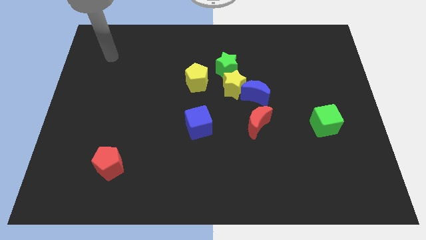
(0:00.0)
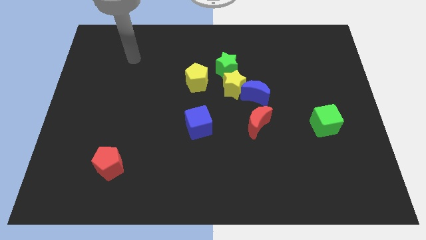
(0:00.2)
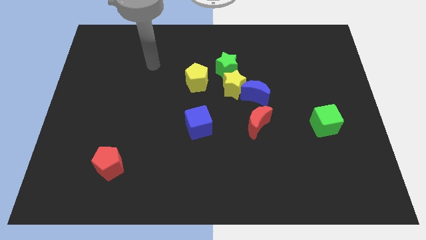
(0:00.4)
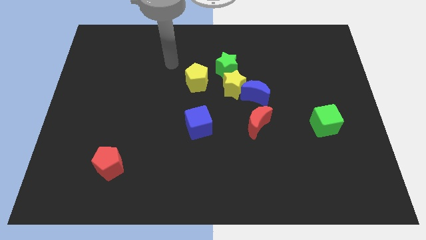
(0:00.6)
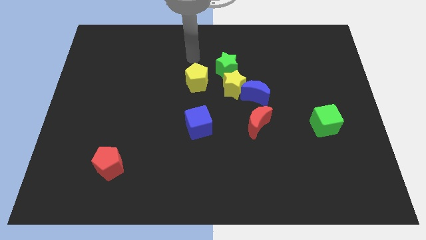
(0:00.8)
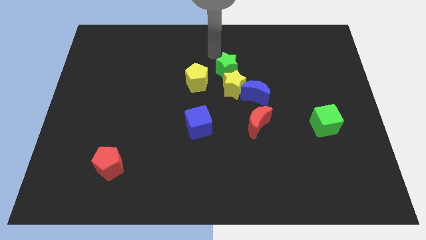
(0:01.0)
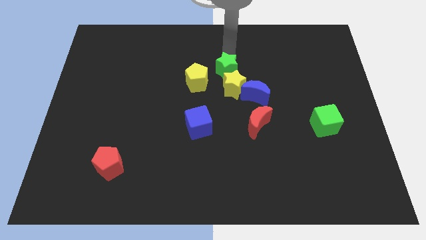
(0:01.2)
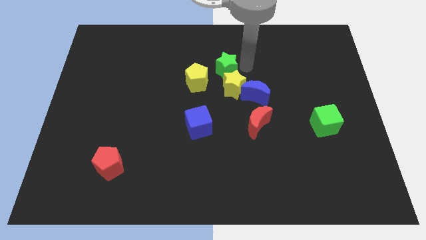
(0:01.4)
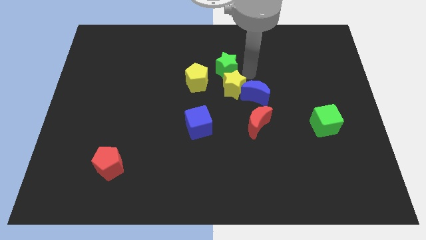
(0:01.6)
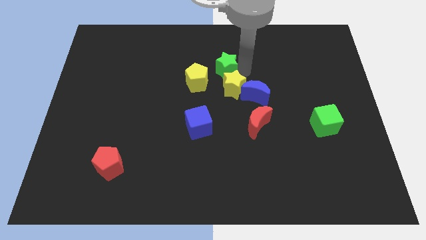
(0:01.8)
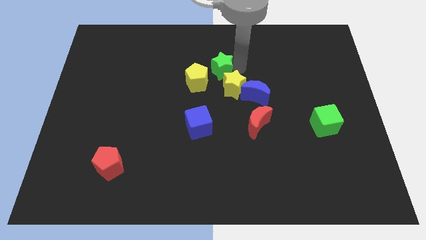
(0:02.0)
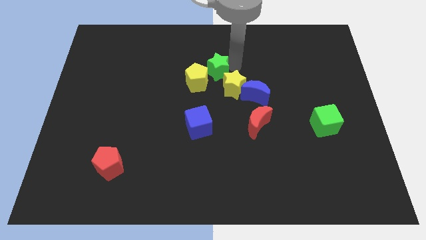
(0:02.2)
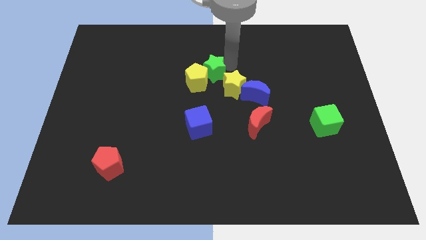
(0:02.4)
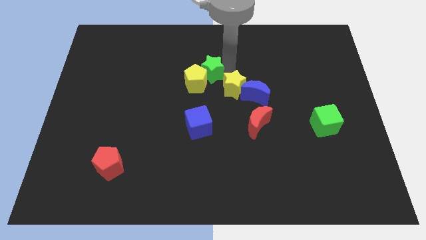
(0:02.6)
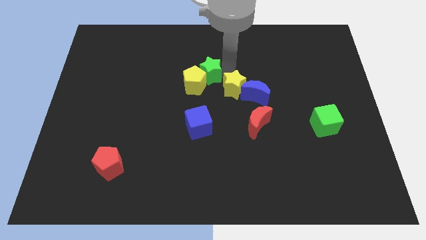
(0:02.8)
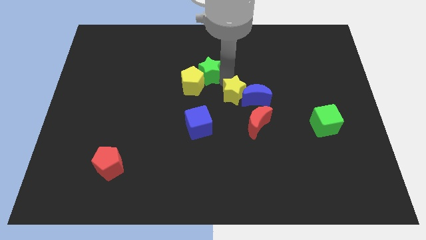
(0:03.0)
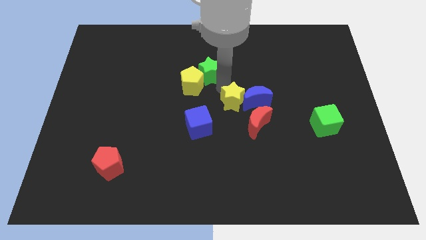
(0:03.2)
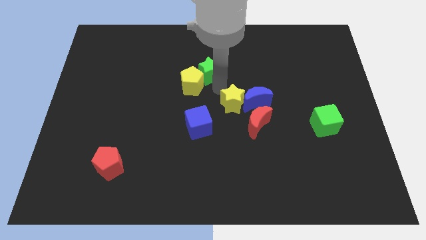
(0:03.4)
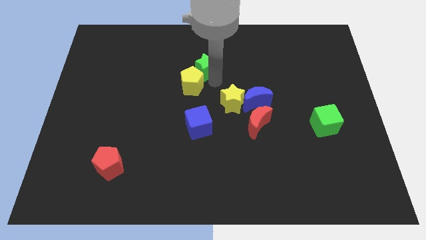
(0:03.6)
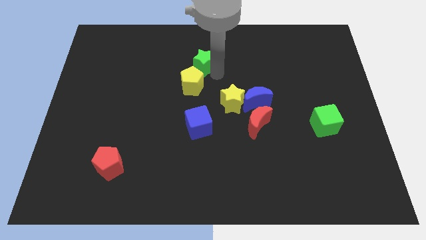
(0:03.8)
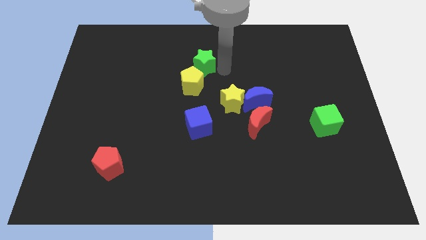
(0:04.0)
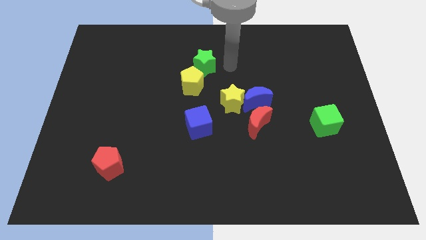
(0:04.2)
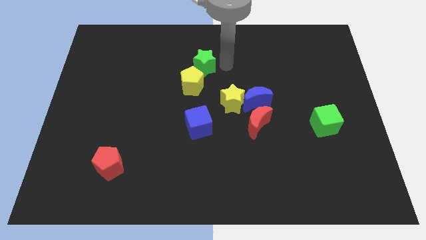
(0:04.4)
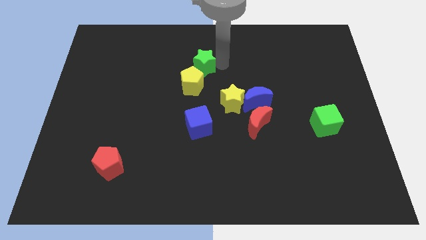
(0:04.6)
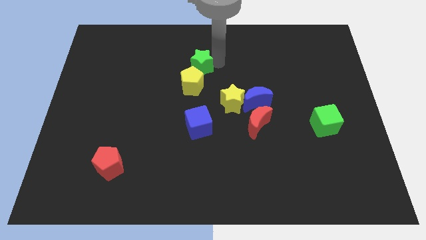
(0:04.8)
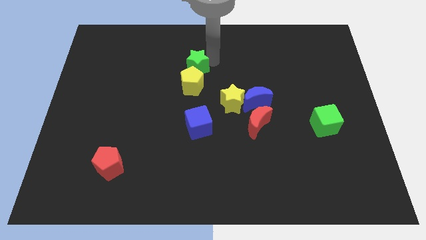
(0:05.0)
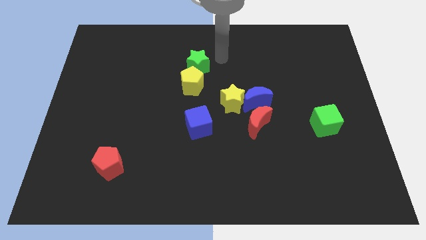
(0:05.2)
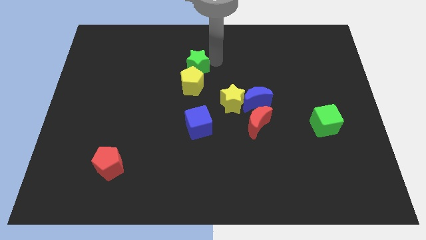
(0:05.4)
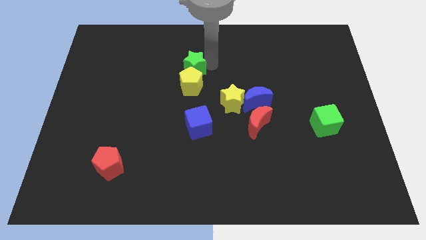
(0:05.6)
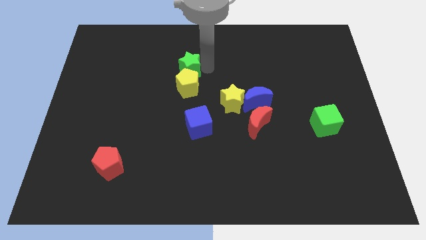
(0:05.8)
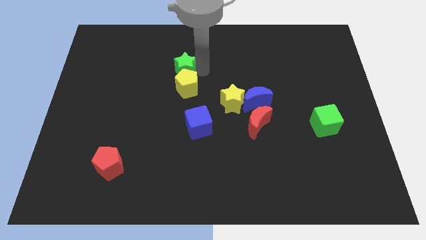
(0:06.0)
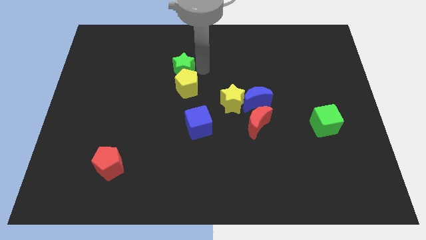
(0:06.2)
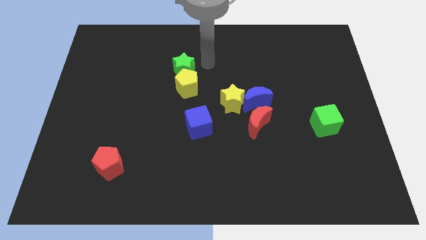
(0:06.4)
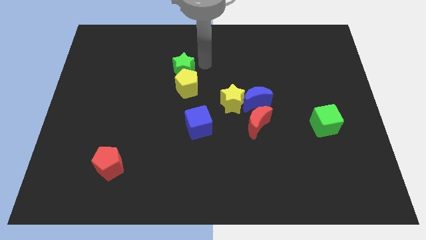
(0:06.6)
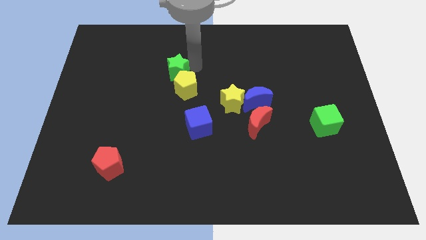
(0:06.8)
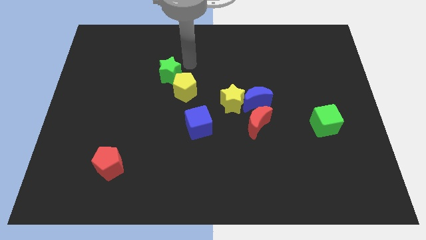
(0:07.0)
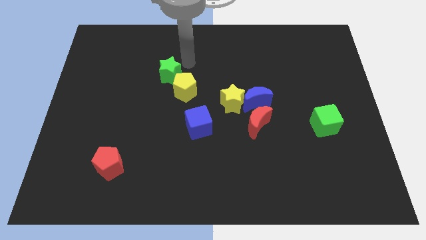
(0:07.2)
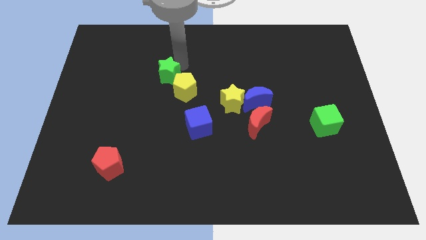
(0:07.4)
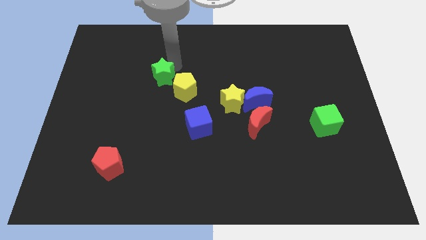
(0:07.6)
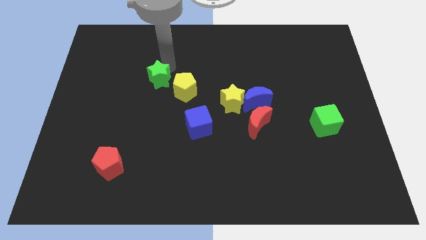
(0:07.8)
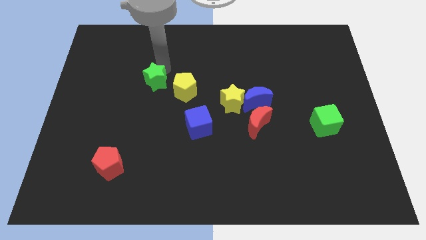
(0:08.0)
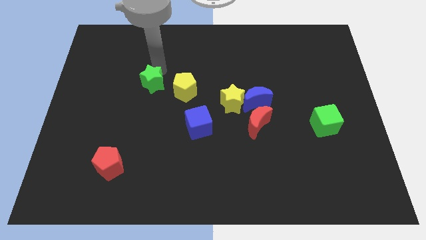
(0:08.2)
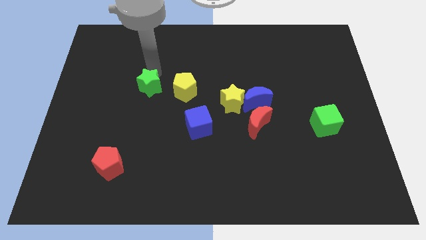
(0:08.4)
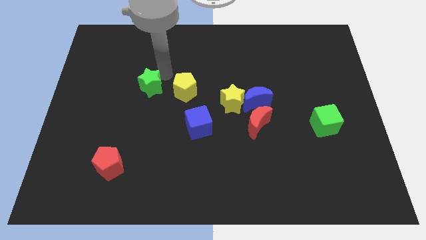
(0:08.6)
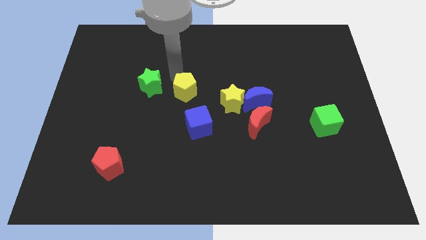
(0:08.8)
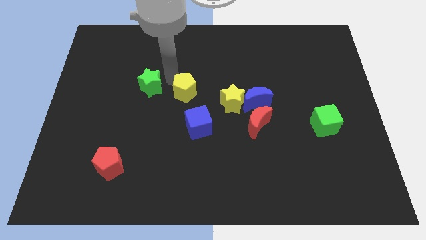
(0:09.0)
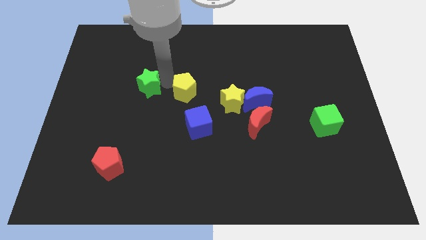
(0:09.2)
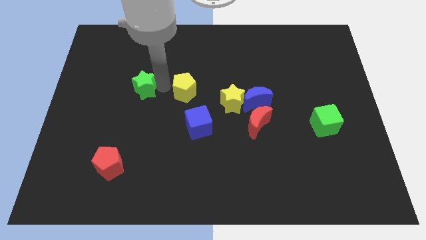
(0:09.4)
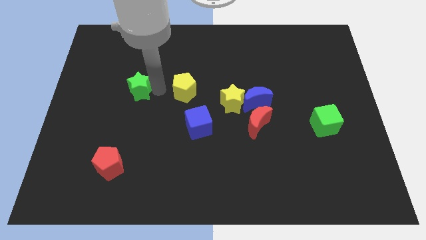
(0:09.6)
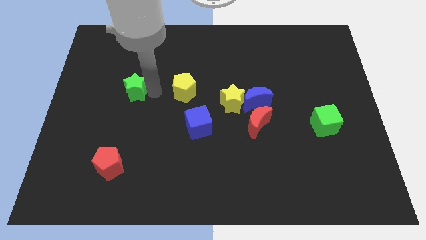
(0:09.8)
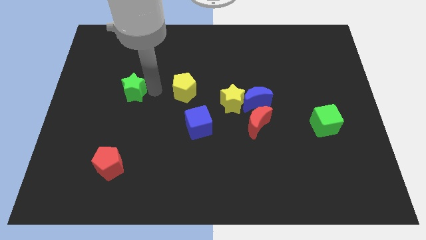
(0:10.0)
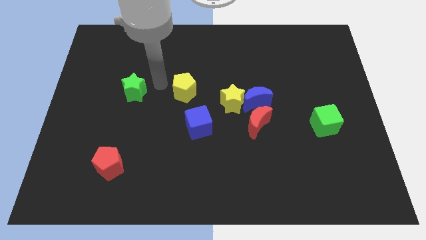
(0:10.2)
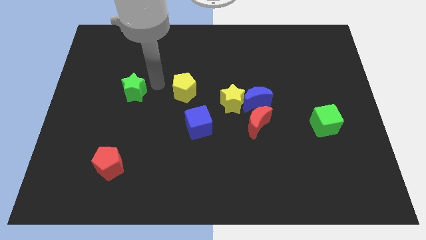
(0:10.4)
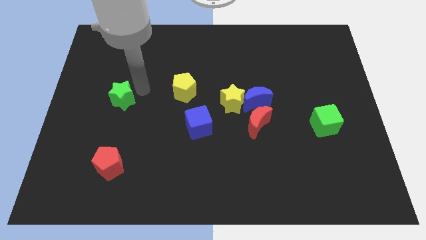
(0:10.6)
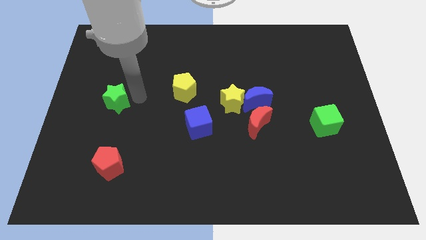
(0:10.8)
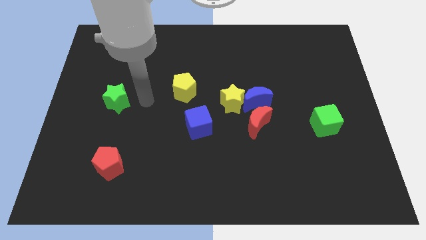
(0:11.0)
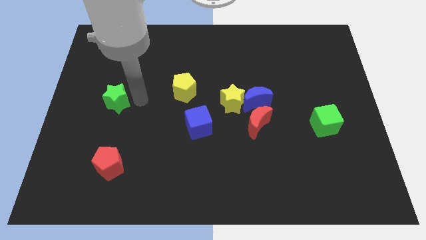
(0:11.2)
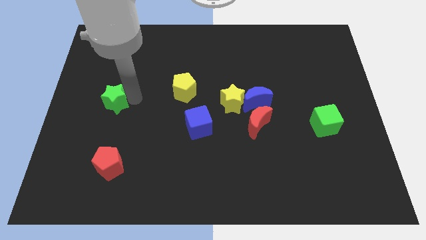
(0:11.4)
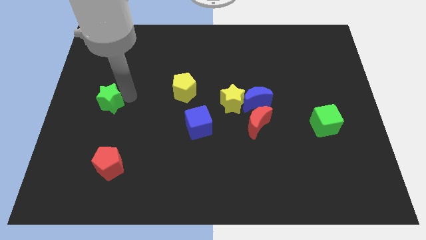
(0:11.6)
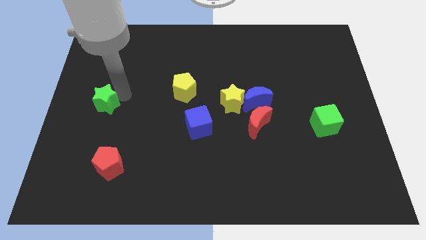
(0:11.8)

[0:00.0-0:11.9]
push the green star to the center left
